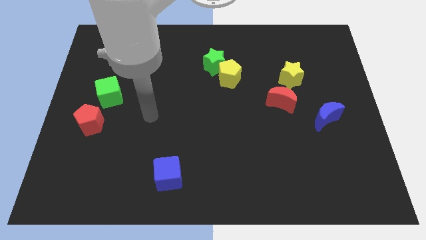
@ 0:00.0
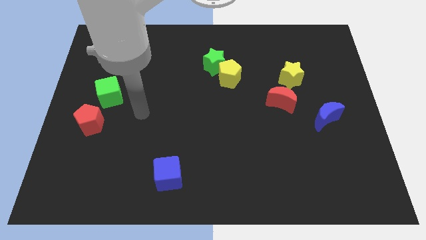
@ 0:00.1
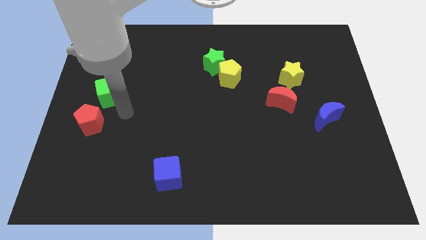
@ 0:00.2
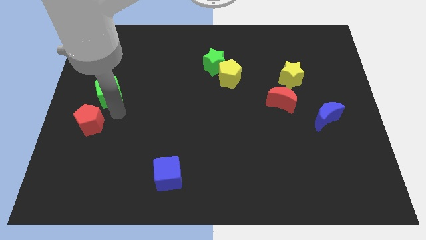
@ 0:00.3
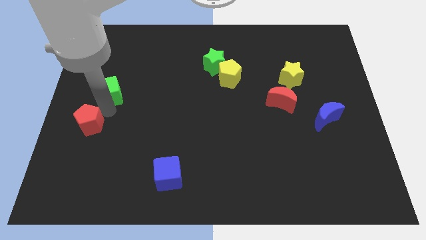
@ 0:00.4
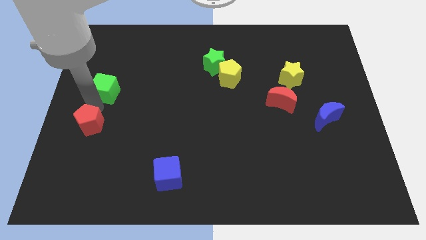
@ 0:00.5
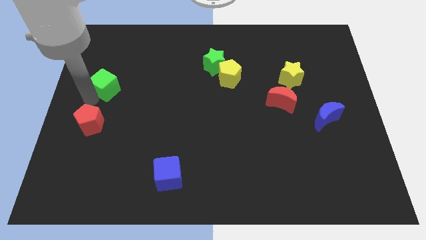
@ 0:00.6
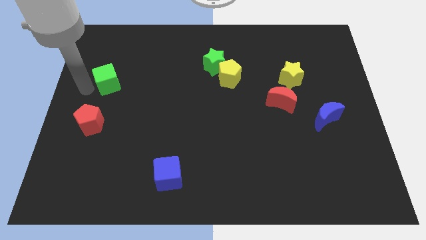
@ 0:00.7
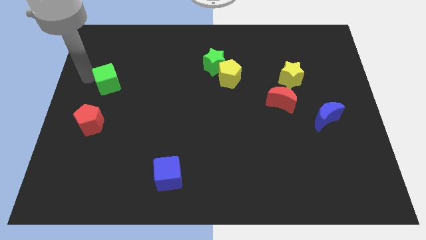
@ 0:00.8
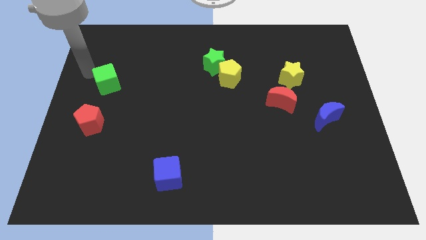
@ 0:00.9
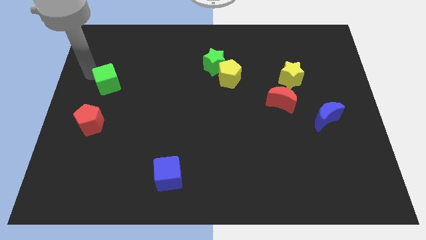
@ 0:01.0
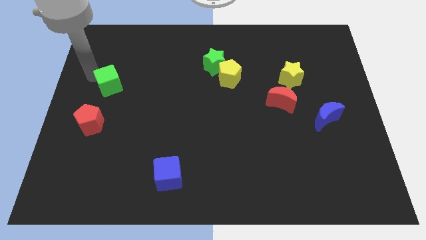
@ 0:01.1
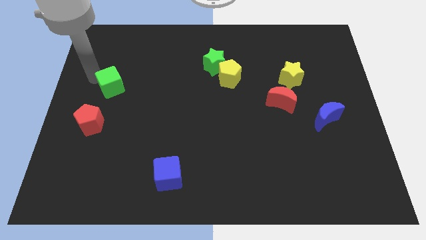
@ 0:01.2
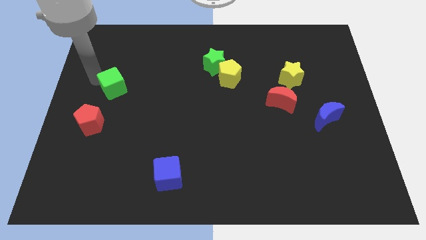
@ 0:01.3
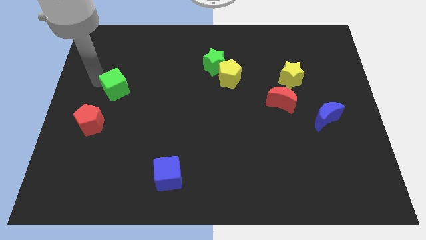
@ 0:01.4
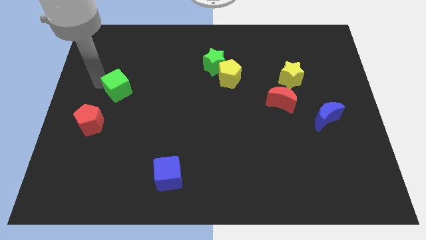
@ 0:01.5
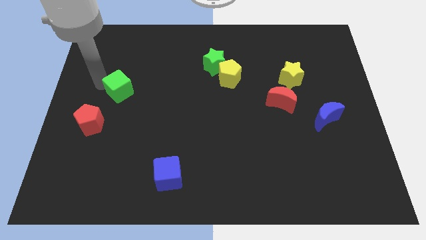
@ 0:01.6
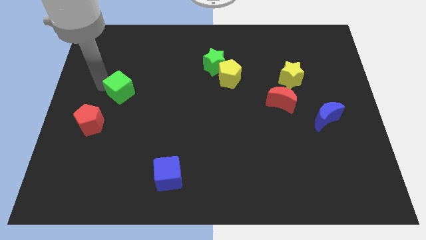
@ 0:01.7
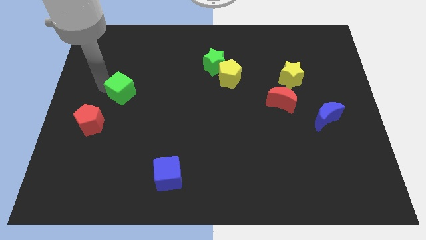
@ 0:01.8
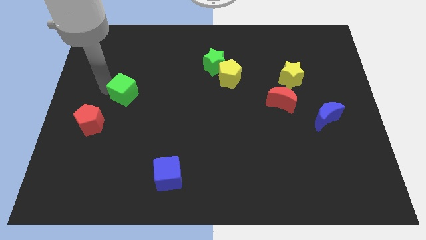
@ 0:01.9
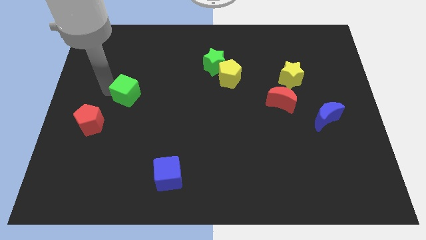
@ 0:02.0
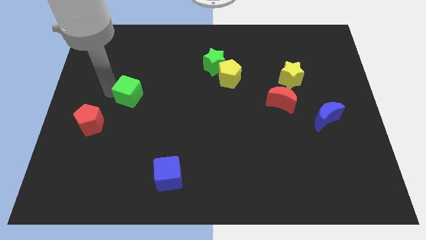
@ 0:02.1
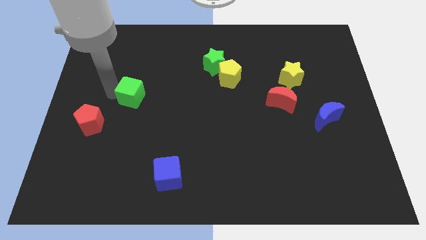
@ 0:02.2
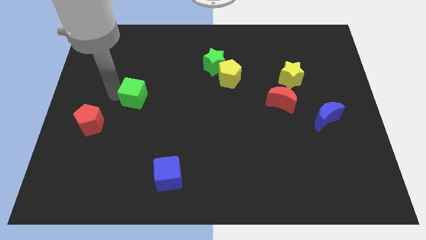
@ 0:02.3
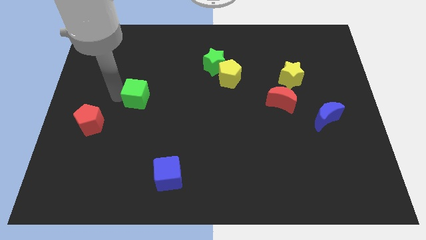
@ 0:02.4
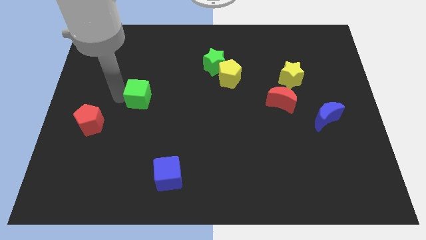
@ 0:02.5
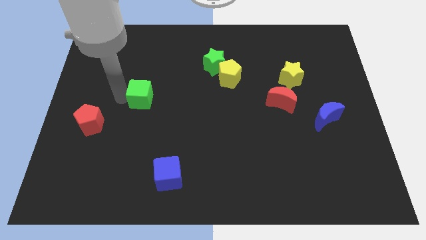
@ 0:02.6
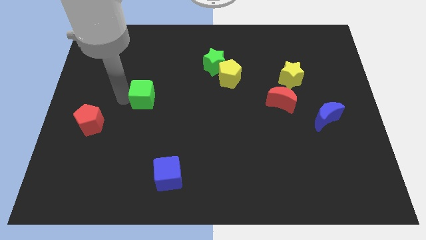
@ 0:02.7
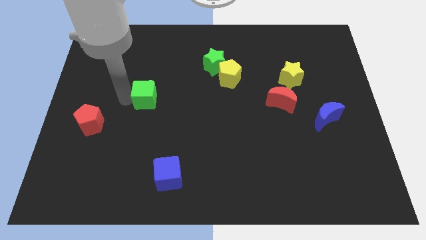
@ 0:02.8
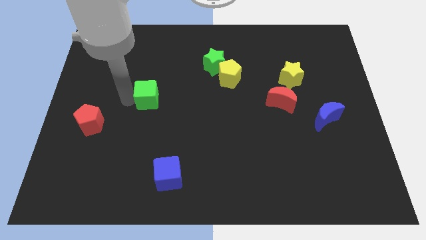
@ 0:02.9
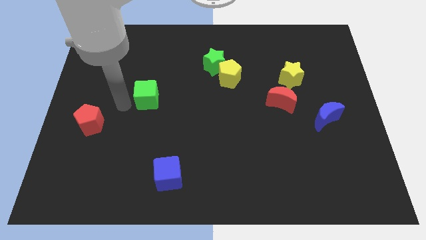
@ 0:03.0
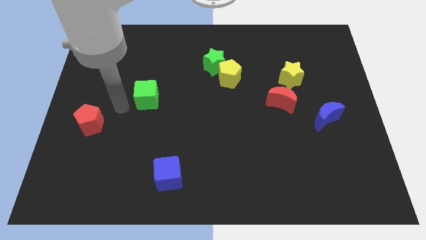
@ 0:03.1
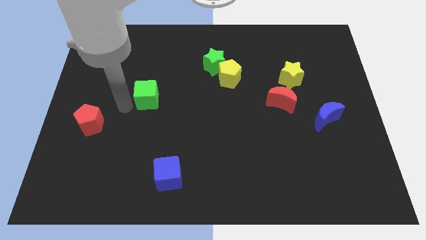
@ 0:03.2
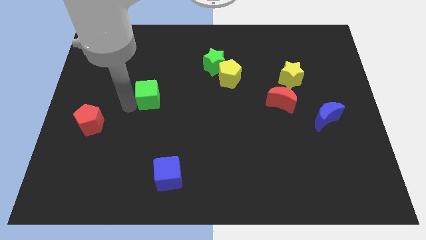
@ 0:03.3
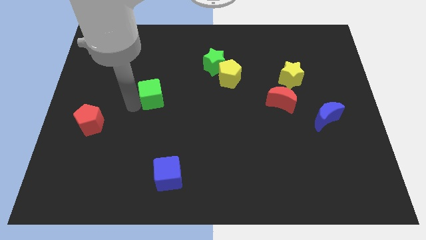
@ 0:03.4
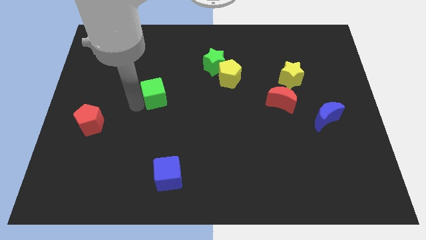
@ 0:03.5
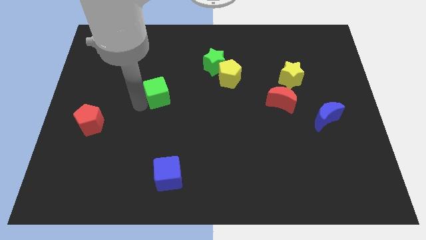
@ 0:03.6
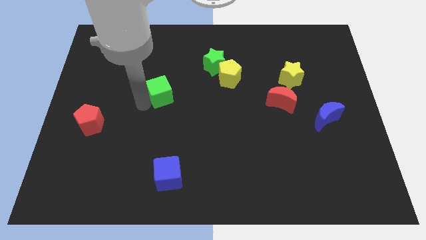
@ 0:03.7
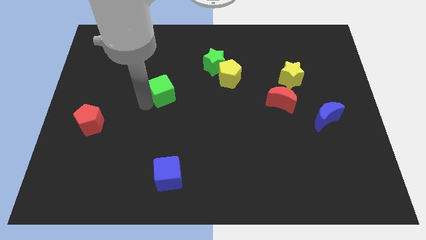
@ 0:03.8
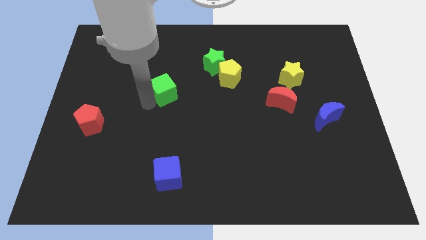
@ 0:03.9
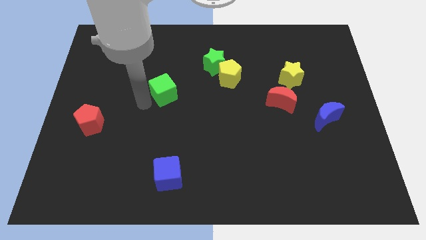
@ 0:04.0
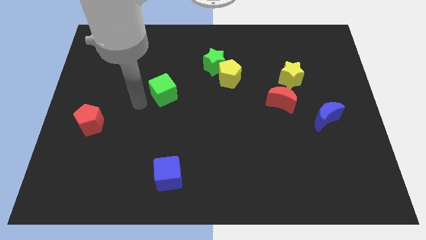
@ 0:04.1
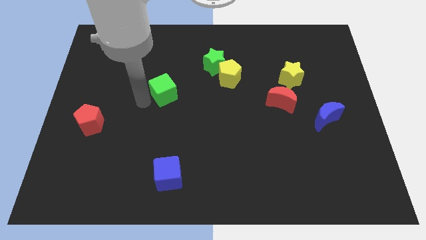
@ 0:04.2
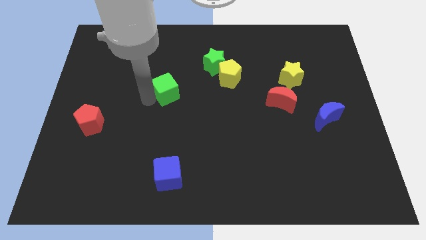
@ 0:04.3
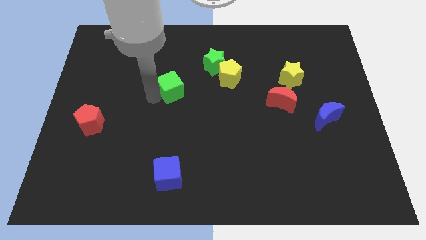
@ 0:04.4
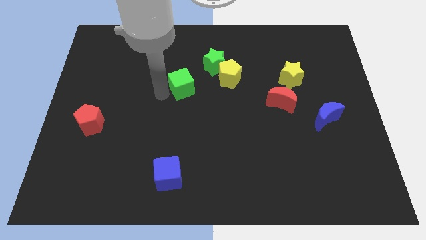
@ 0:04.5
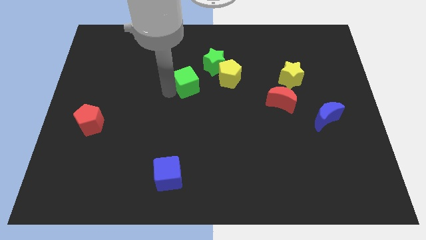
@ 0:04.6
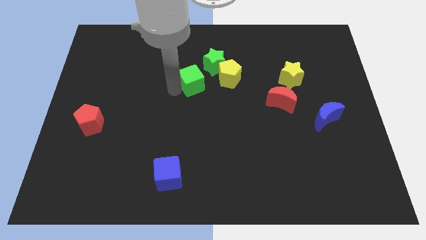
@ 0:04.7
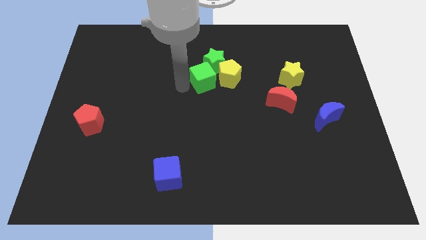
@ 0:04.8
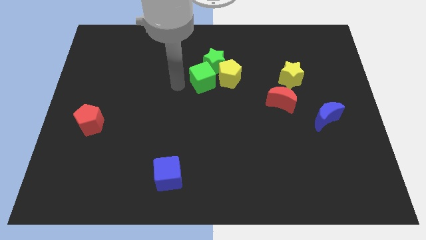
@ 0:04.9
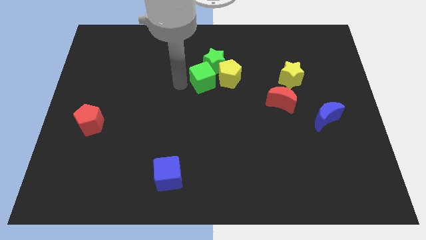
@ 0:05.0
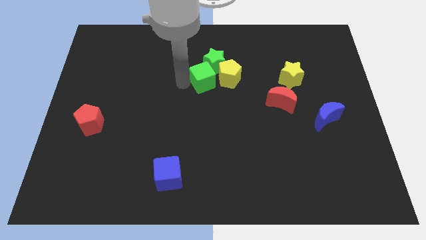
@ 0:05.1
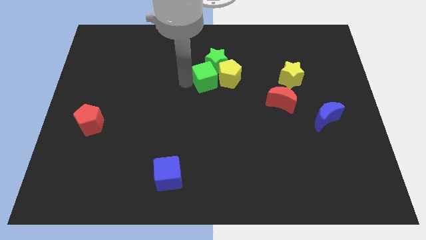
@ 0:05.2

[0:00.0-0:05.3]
slide the green cube towards the yellow pentagon

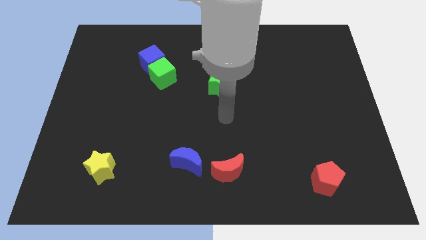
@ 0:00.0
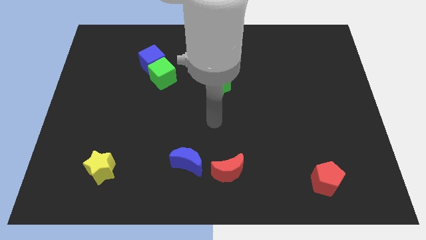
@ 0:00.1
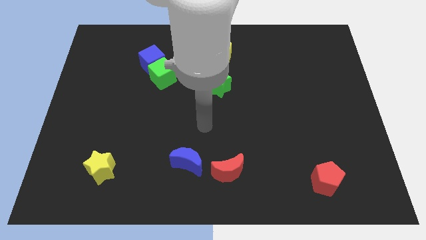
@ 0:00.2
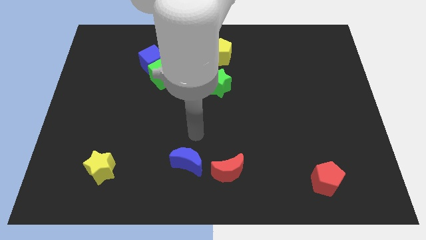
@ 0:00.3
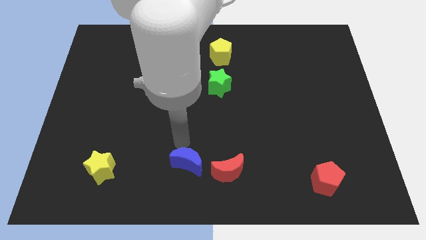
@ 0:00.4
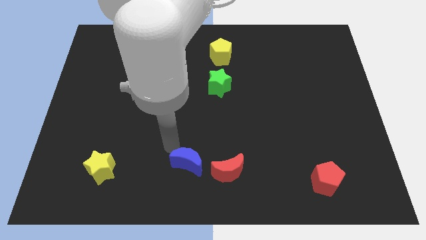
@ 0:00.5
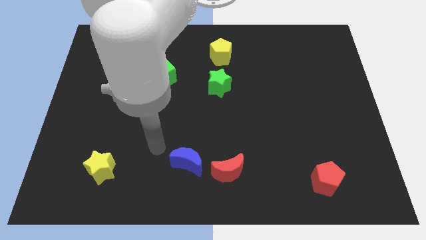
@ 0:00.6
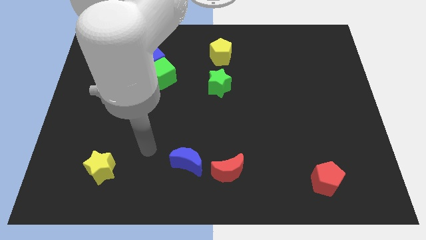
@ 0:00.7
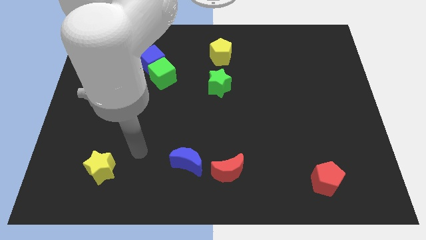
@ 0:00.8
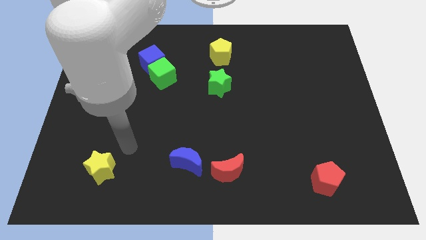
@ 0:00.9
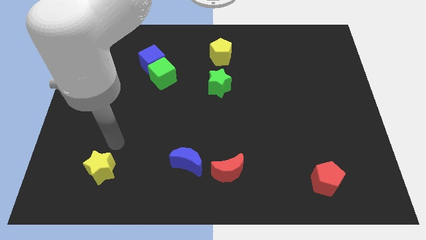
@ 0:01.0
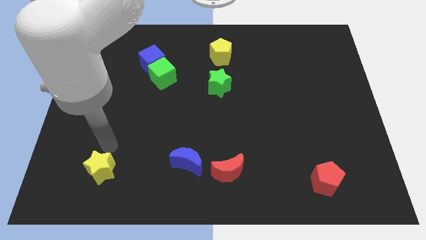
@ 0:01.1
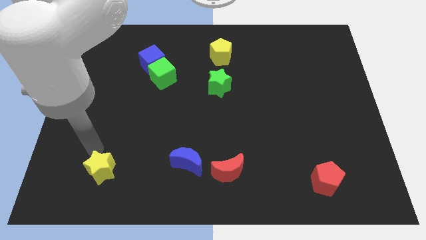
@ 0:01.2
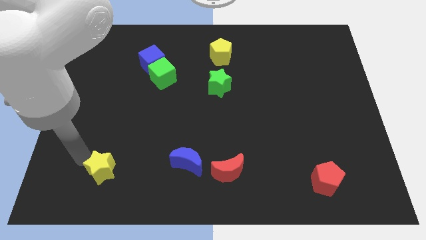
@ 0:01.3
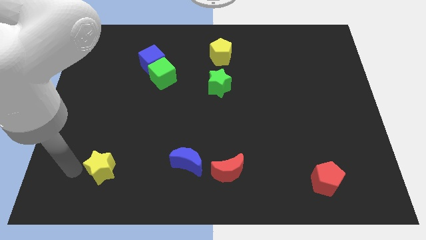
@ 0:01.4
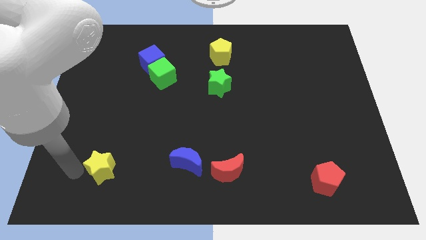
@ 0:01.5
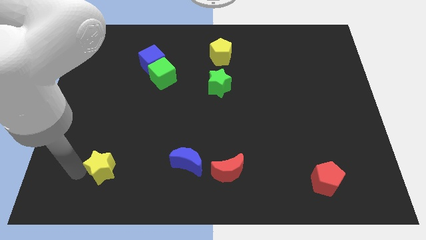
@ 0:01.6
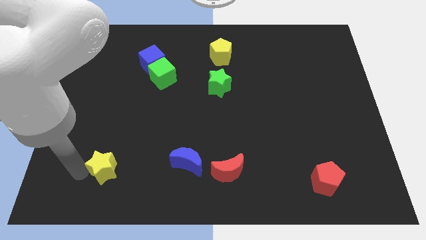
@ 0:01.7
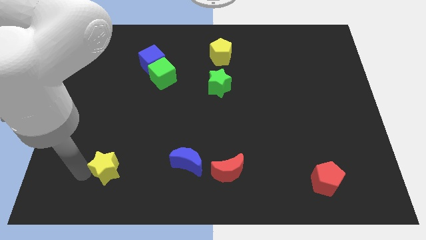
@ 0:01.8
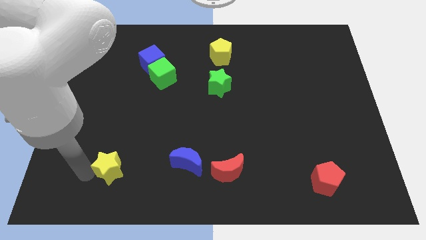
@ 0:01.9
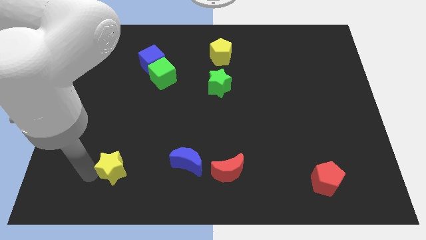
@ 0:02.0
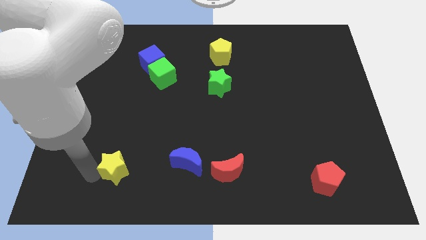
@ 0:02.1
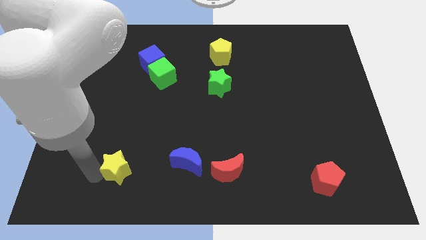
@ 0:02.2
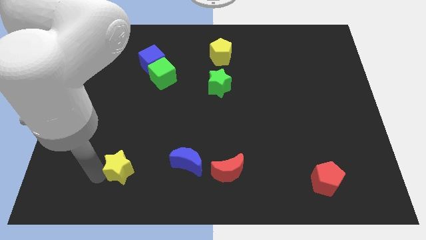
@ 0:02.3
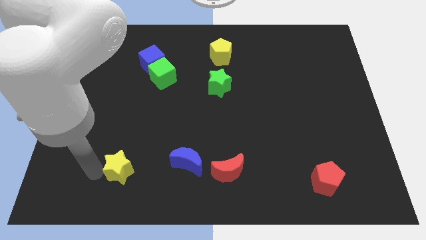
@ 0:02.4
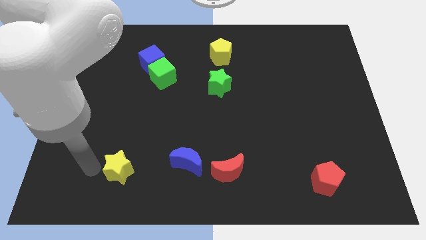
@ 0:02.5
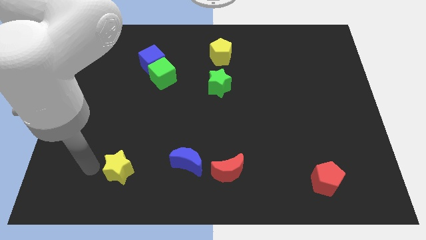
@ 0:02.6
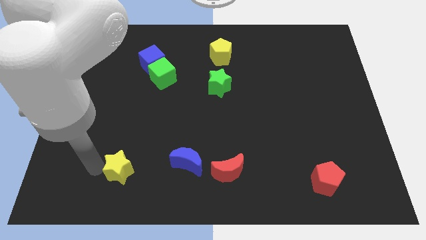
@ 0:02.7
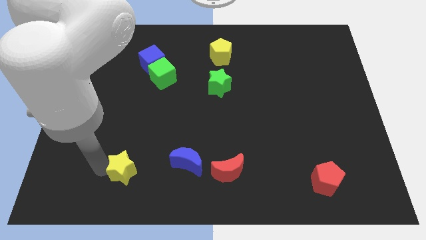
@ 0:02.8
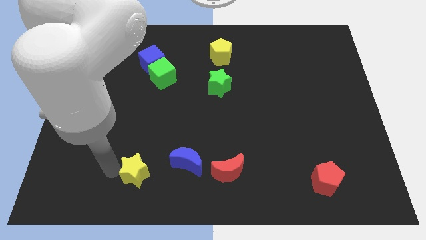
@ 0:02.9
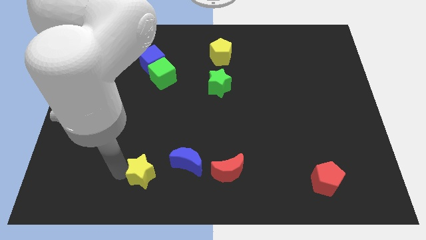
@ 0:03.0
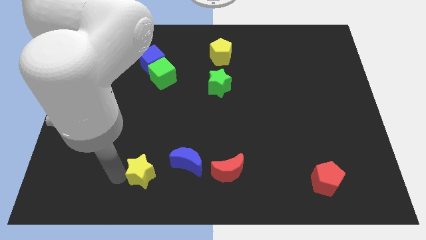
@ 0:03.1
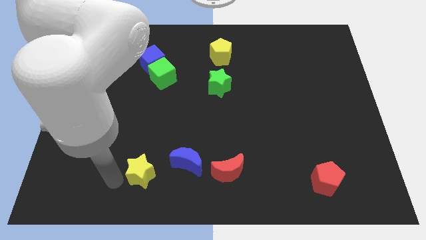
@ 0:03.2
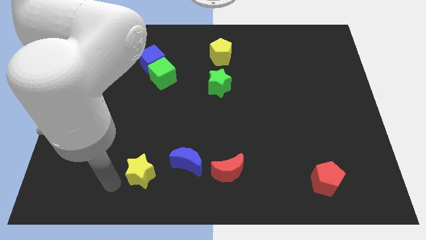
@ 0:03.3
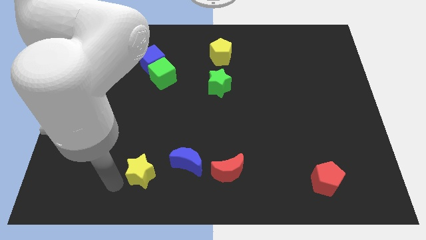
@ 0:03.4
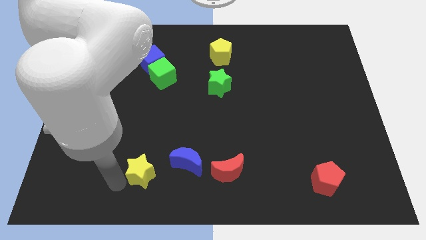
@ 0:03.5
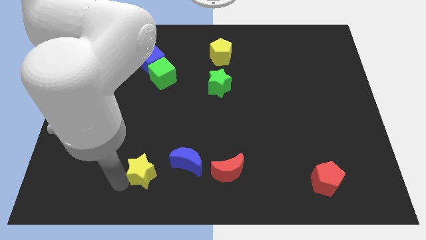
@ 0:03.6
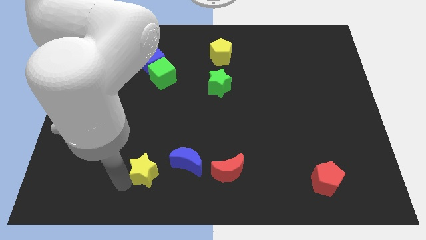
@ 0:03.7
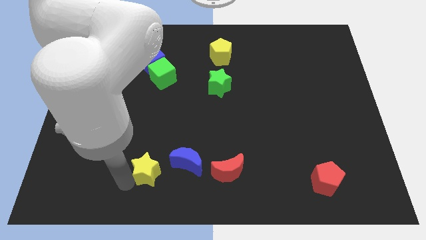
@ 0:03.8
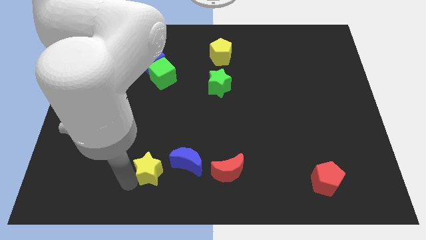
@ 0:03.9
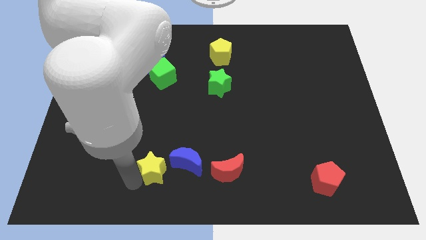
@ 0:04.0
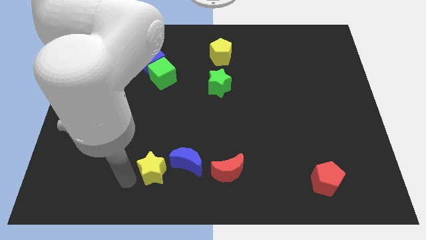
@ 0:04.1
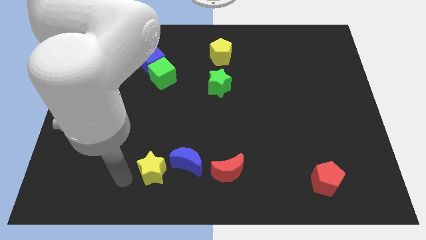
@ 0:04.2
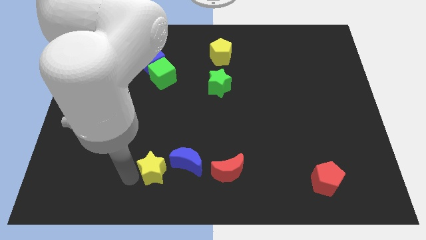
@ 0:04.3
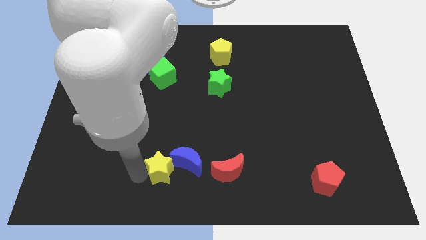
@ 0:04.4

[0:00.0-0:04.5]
slide the yellow star close to the blue moon
